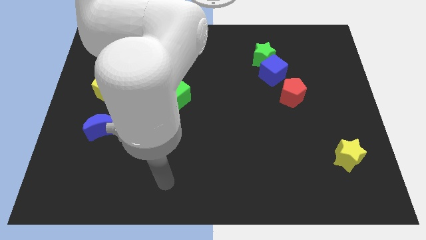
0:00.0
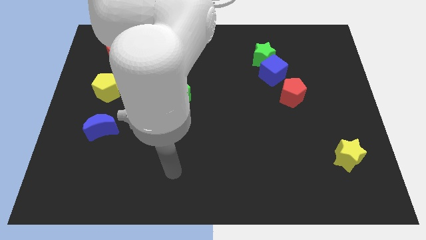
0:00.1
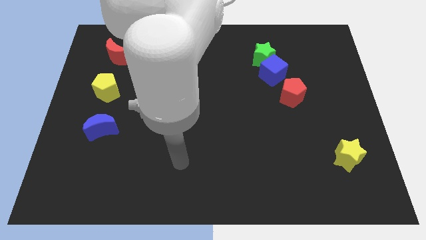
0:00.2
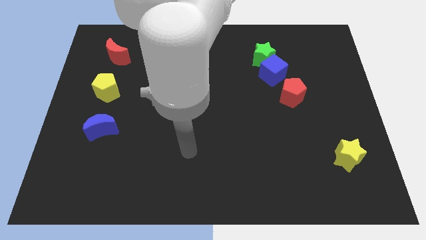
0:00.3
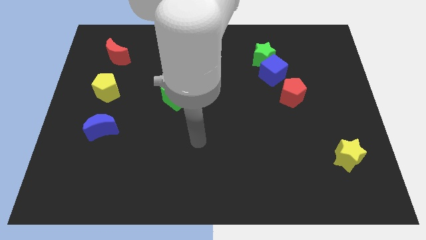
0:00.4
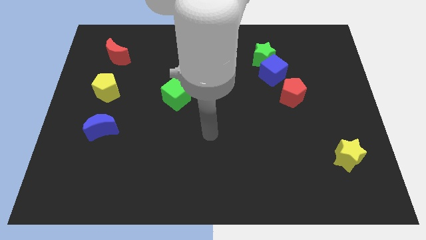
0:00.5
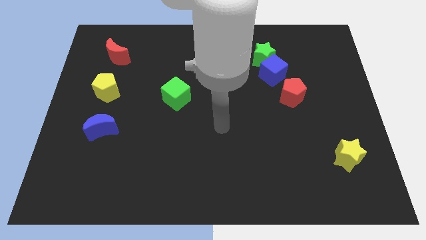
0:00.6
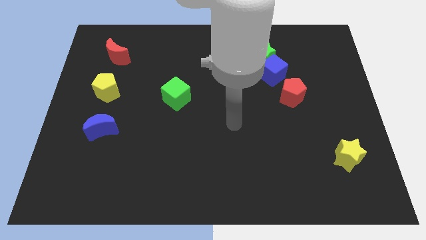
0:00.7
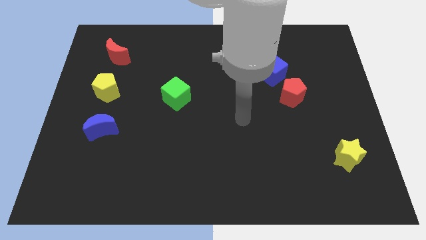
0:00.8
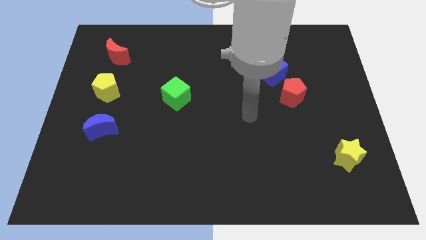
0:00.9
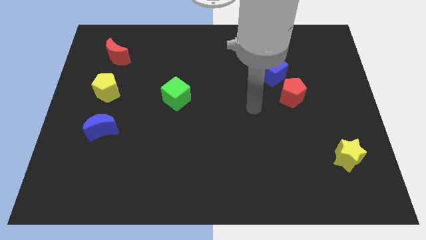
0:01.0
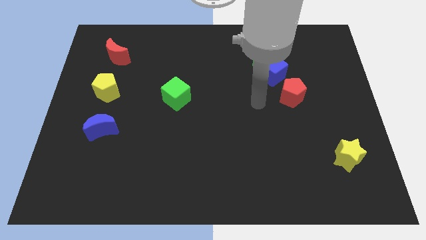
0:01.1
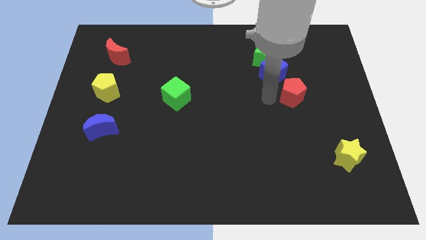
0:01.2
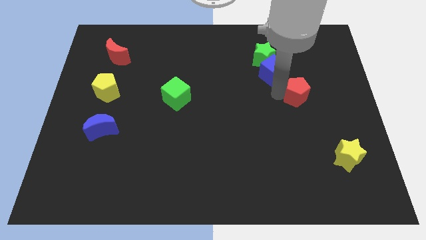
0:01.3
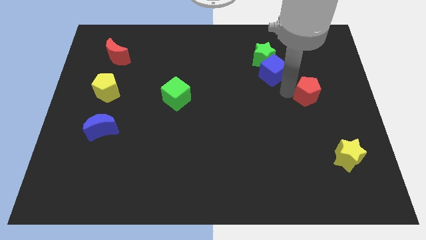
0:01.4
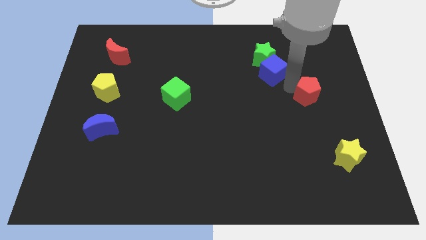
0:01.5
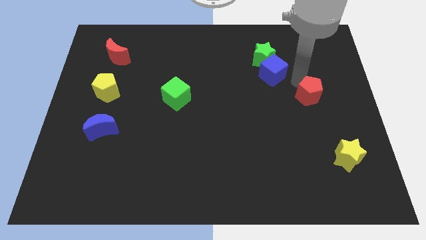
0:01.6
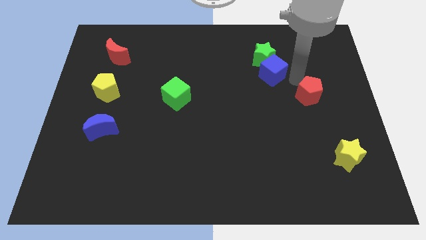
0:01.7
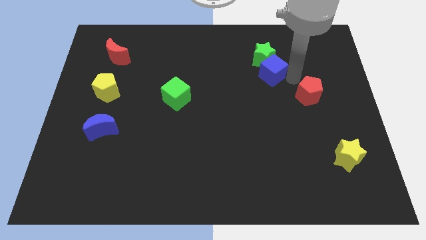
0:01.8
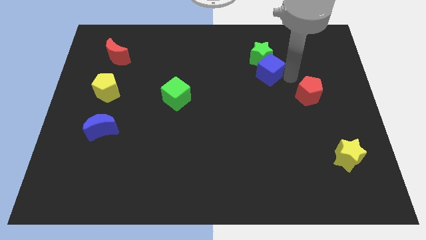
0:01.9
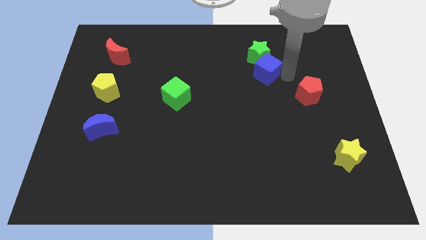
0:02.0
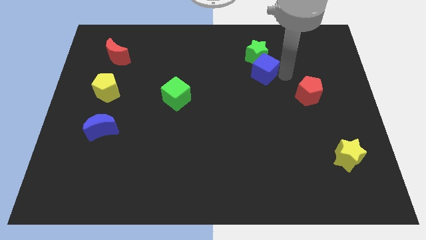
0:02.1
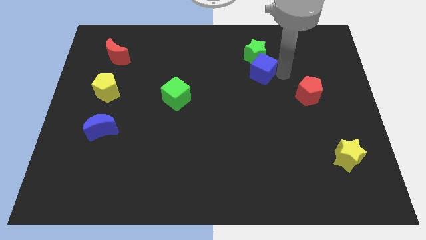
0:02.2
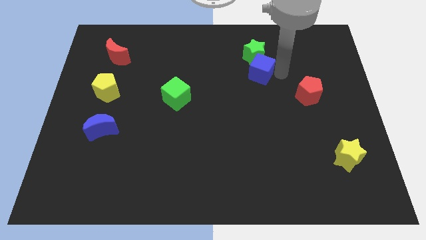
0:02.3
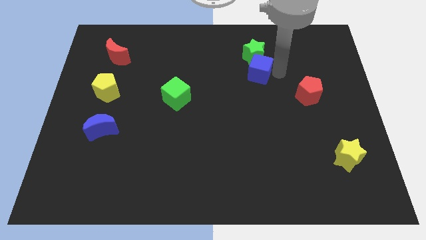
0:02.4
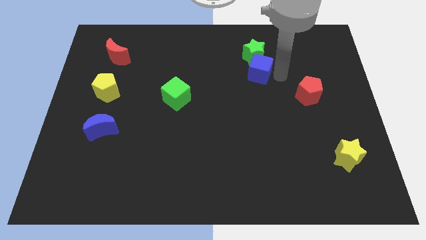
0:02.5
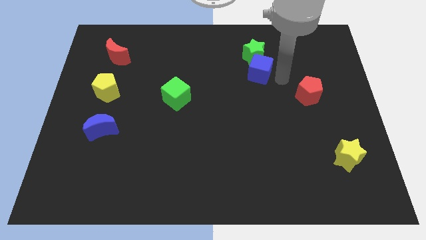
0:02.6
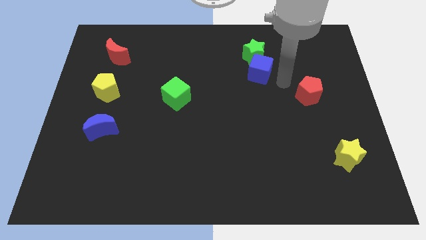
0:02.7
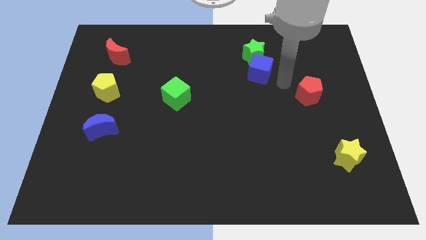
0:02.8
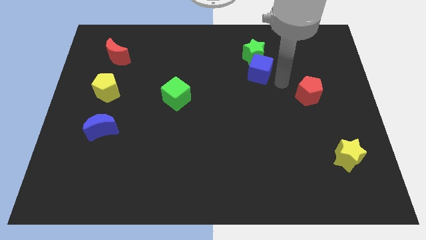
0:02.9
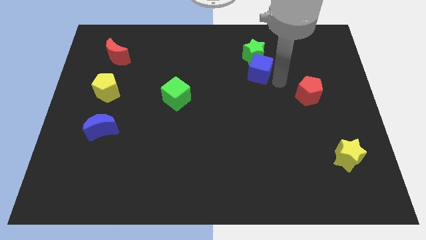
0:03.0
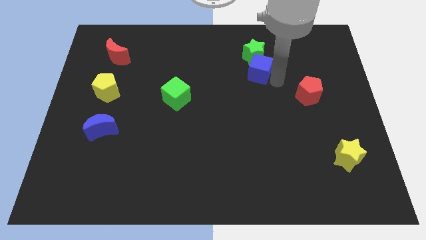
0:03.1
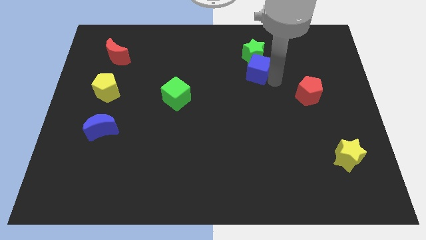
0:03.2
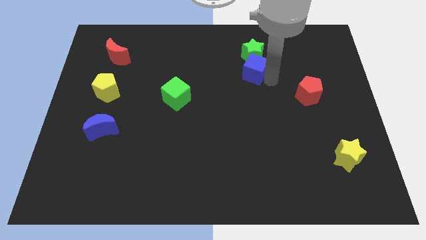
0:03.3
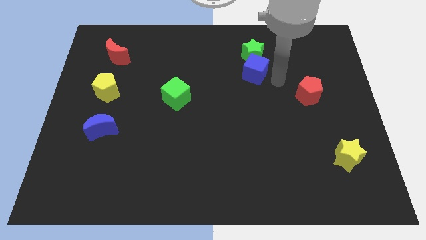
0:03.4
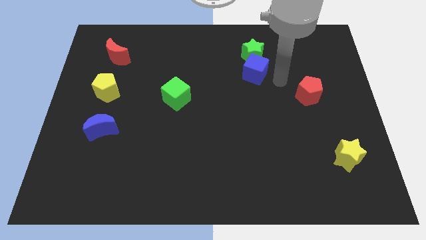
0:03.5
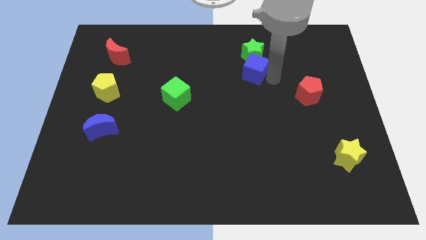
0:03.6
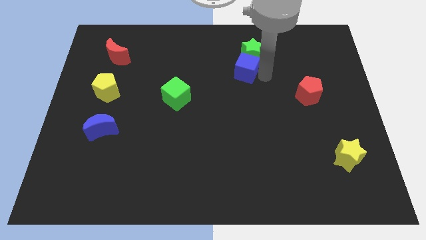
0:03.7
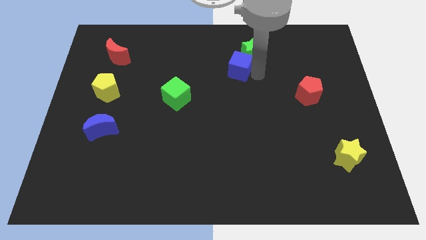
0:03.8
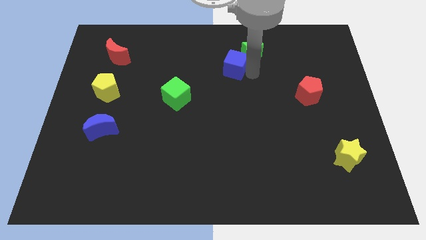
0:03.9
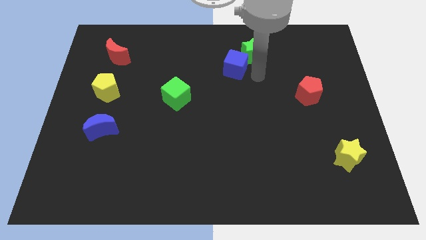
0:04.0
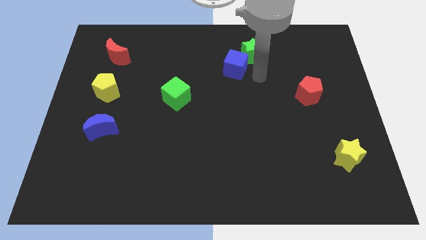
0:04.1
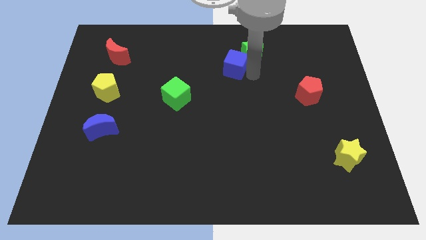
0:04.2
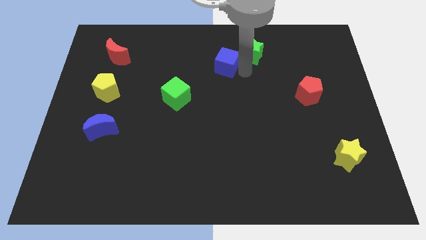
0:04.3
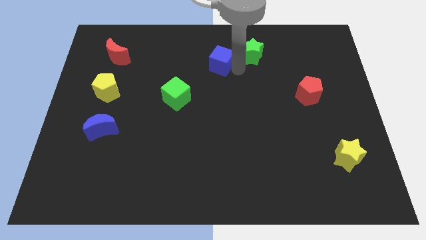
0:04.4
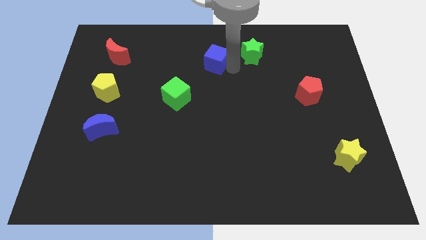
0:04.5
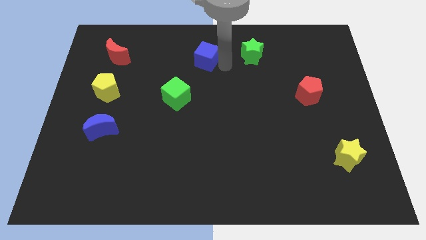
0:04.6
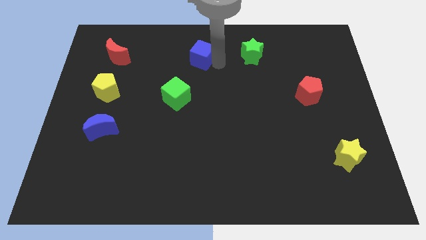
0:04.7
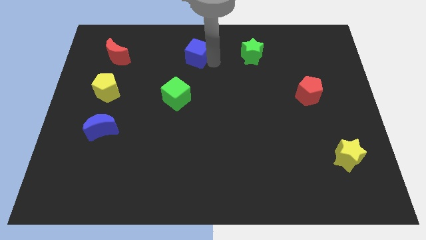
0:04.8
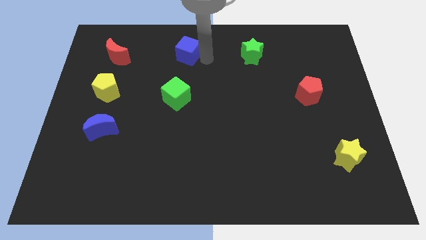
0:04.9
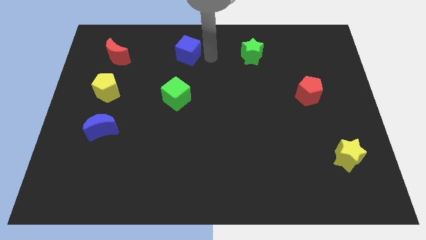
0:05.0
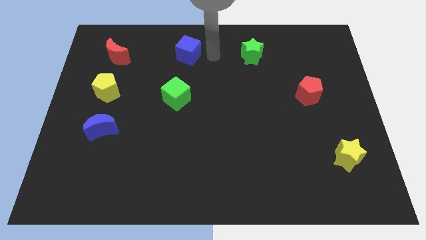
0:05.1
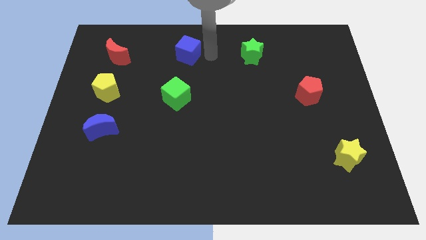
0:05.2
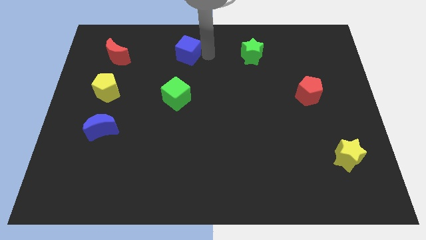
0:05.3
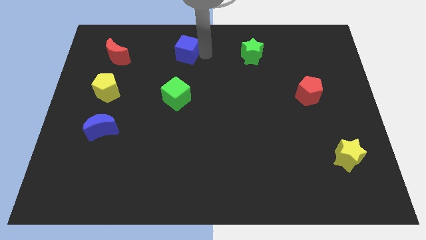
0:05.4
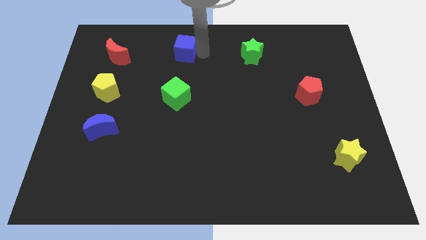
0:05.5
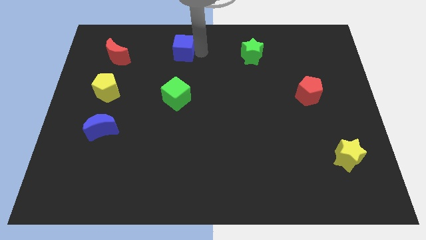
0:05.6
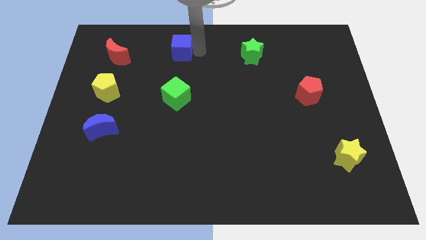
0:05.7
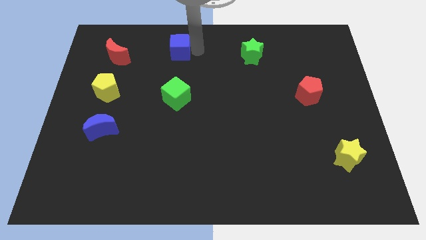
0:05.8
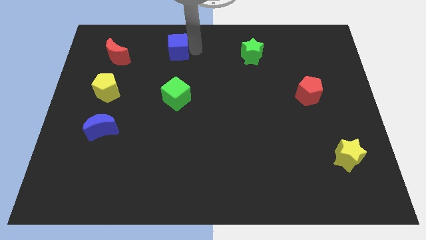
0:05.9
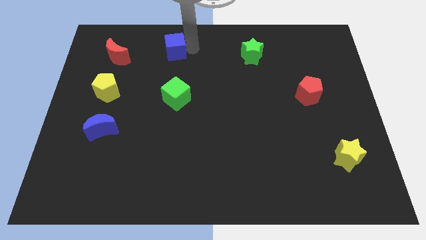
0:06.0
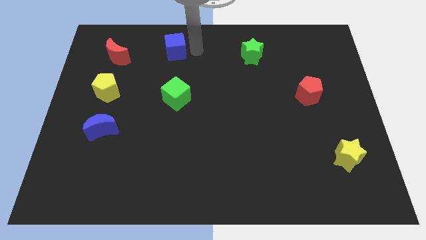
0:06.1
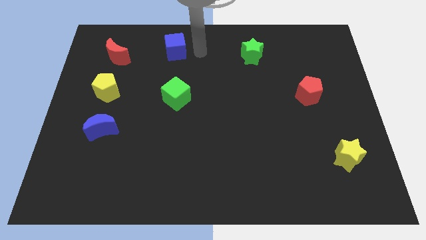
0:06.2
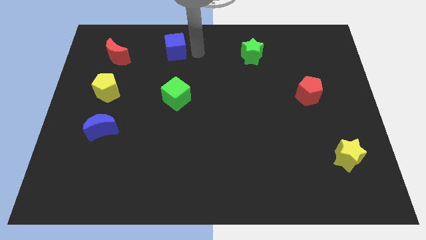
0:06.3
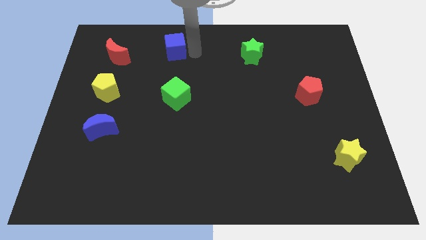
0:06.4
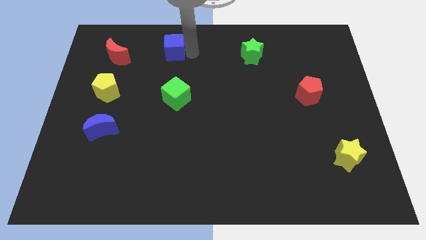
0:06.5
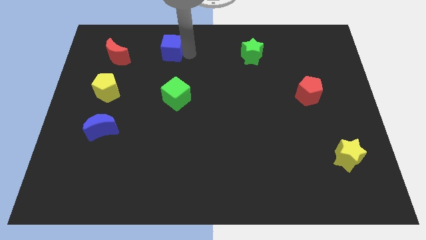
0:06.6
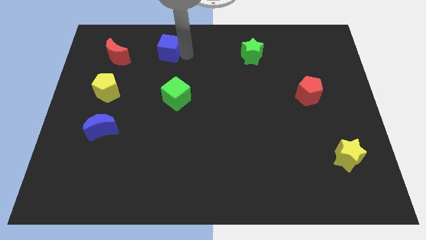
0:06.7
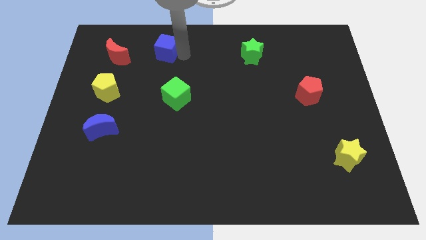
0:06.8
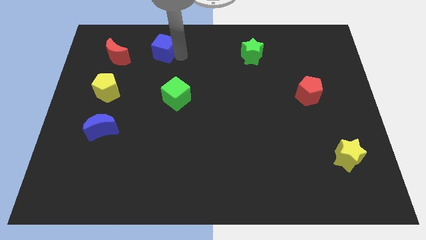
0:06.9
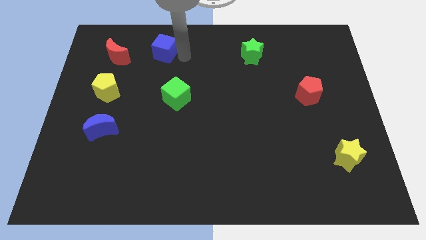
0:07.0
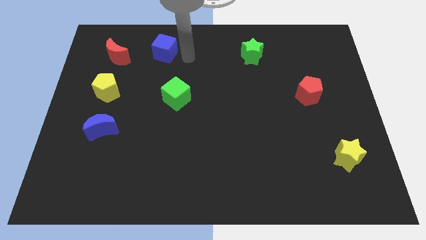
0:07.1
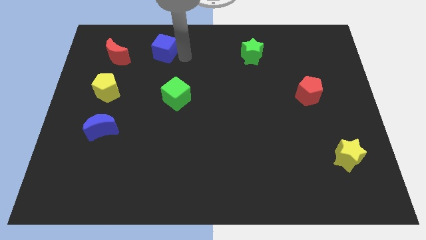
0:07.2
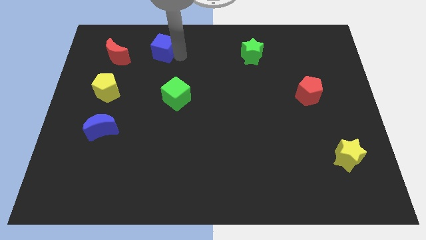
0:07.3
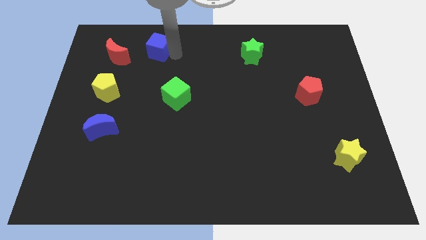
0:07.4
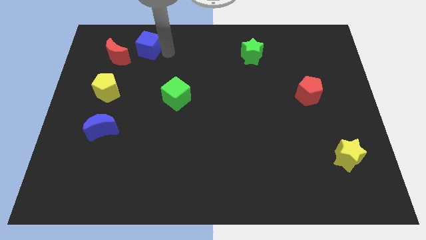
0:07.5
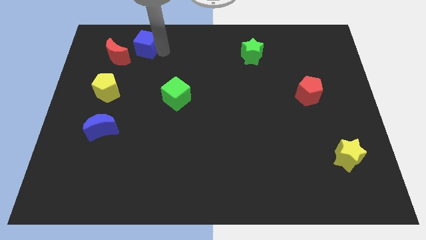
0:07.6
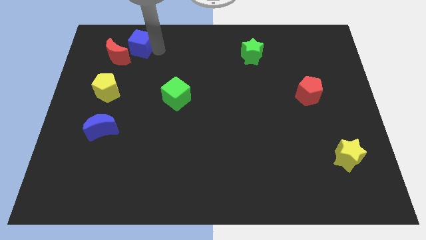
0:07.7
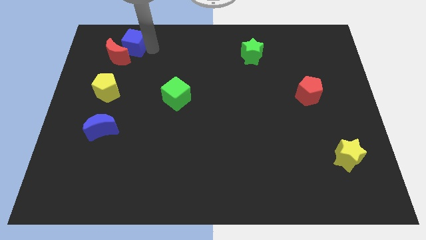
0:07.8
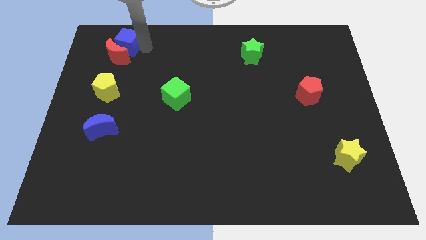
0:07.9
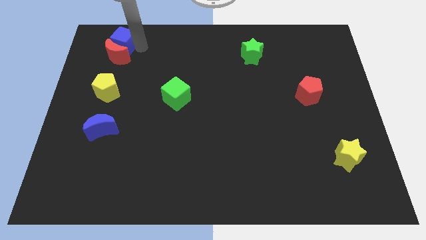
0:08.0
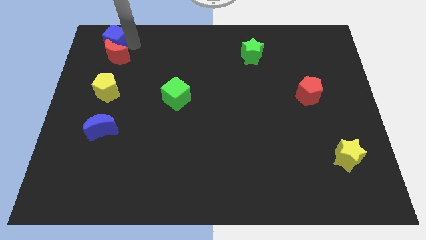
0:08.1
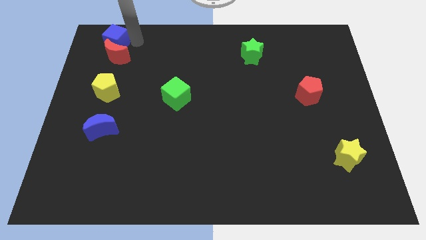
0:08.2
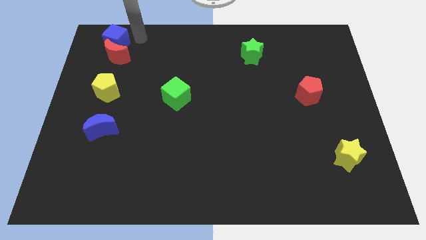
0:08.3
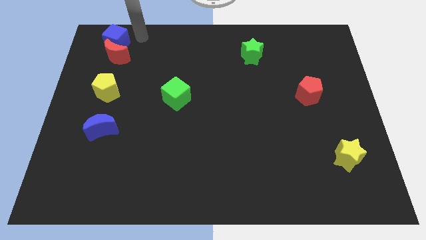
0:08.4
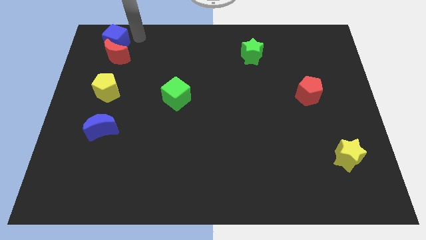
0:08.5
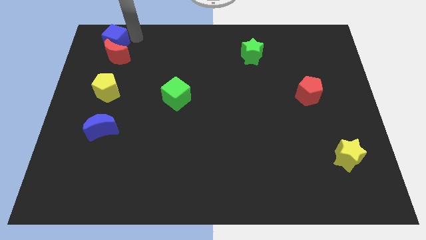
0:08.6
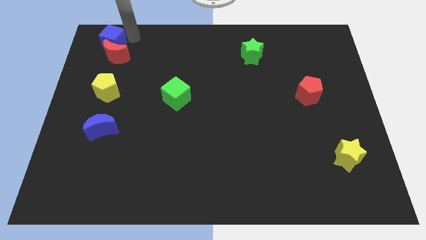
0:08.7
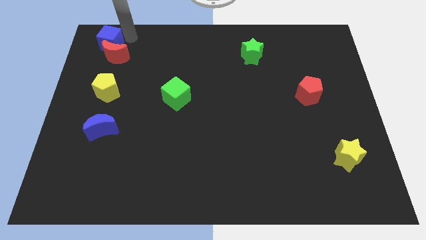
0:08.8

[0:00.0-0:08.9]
put the blue cube to the top left
